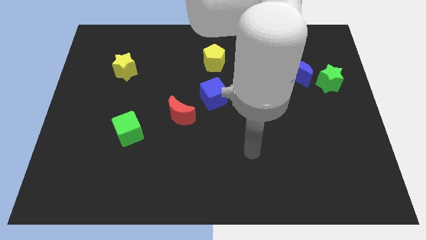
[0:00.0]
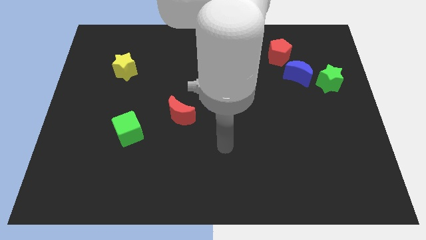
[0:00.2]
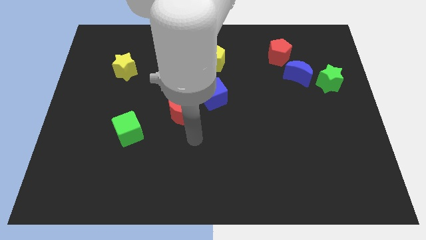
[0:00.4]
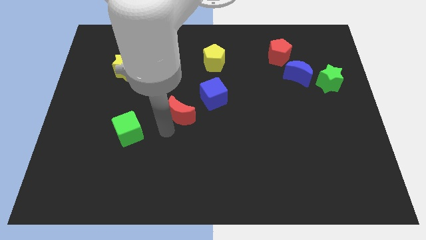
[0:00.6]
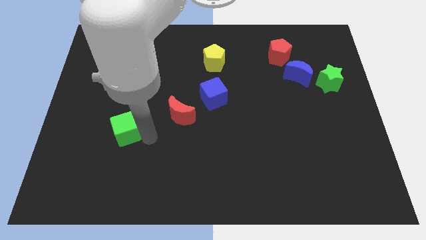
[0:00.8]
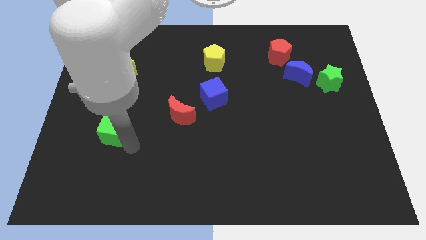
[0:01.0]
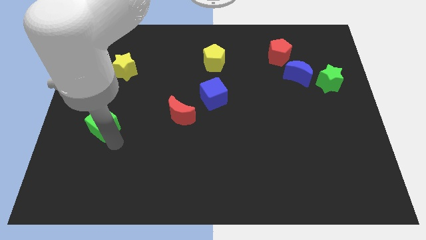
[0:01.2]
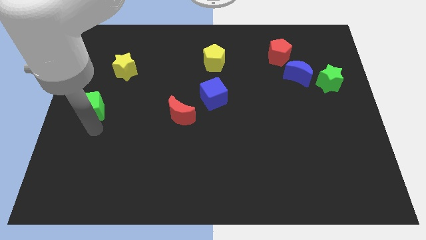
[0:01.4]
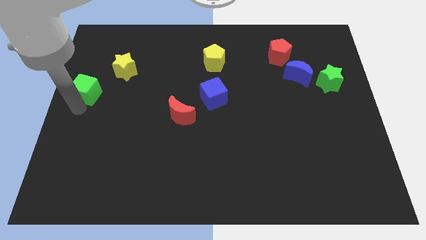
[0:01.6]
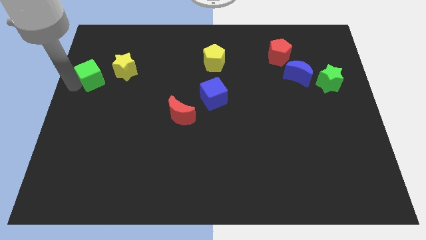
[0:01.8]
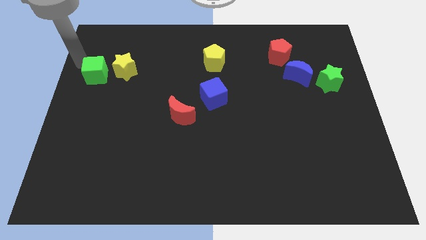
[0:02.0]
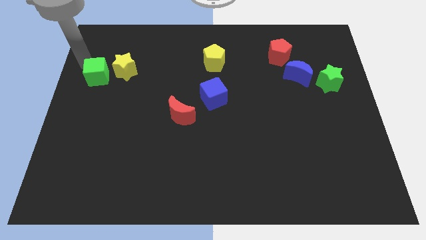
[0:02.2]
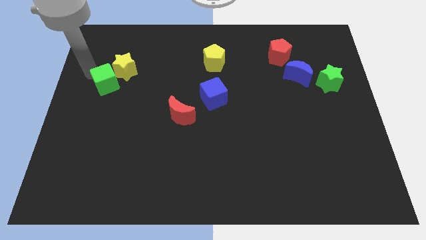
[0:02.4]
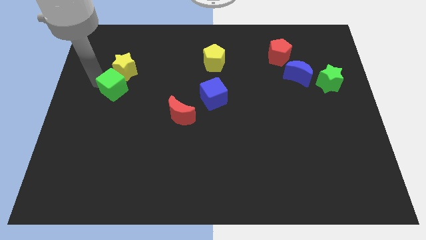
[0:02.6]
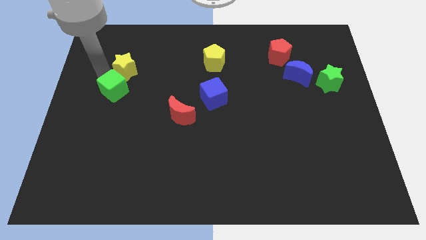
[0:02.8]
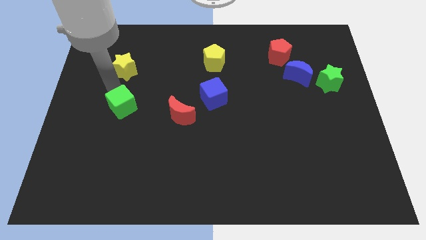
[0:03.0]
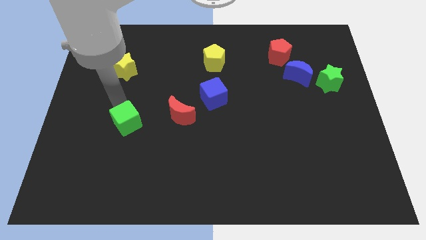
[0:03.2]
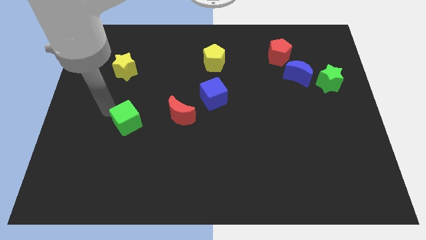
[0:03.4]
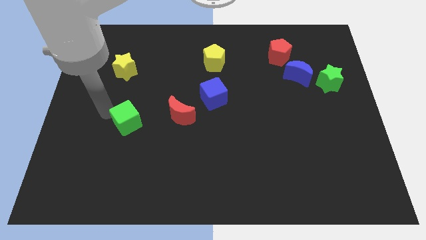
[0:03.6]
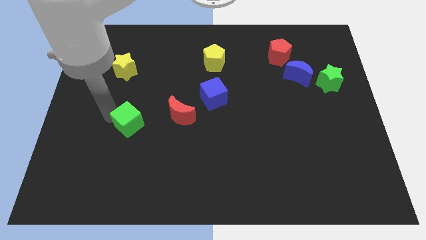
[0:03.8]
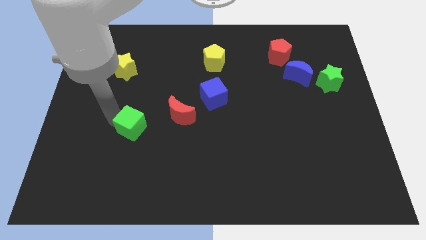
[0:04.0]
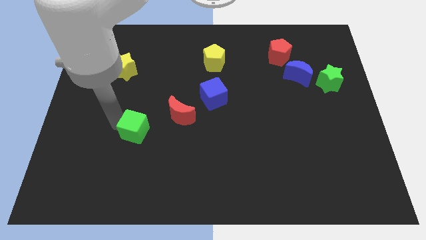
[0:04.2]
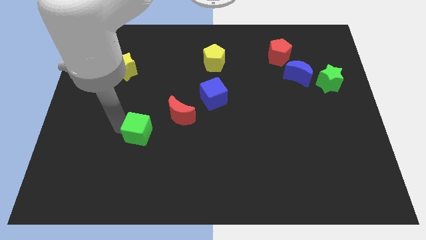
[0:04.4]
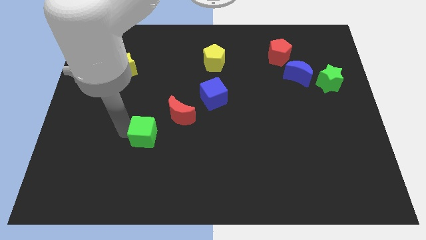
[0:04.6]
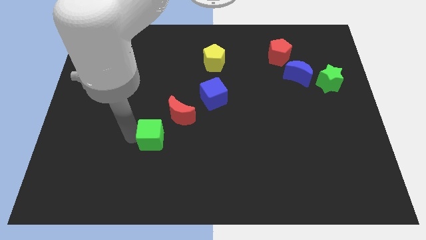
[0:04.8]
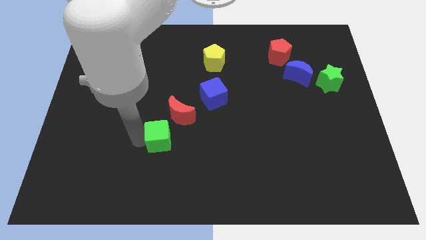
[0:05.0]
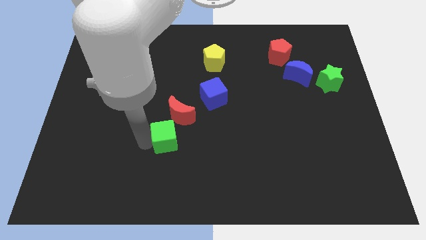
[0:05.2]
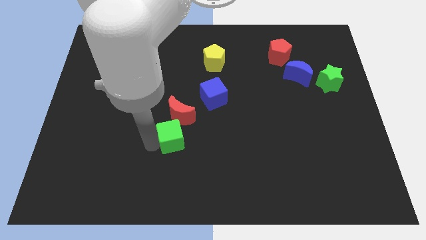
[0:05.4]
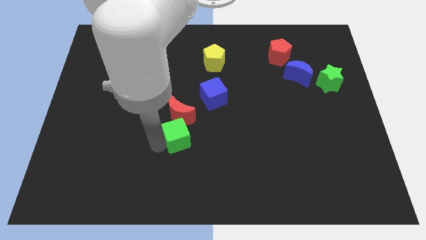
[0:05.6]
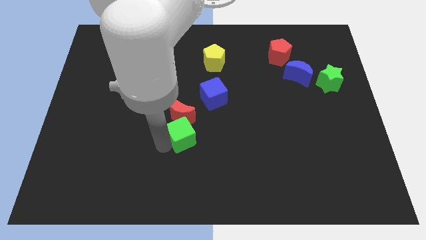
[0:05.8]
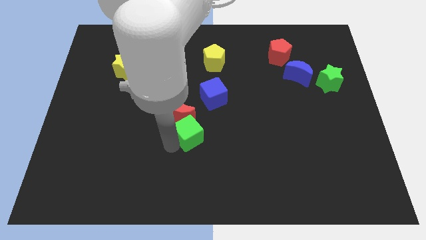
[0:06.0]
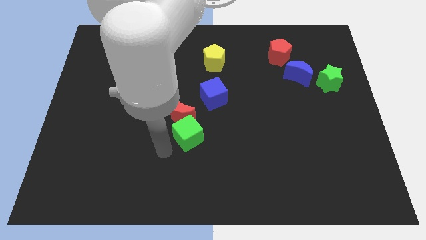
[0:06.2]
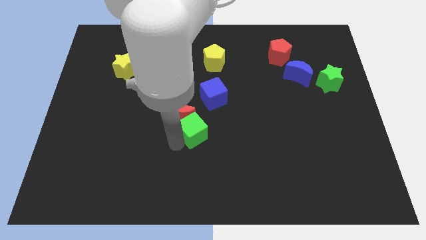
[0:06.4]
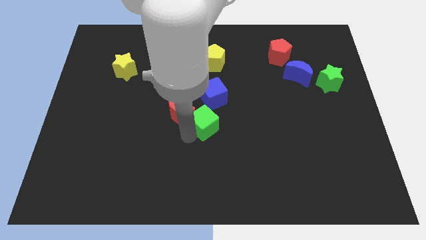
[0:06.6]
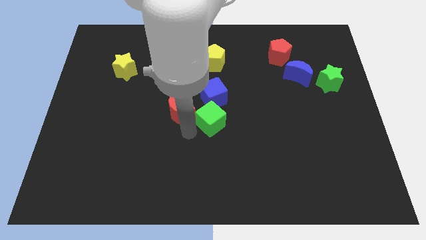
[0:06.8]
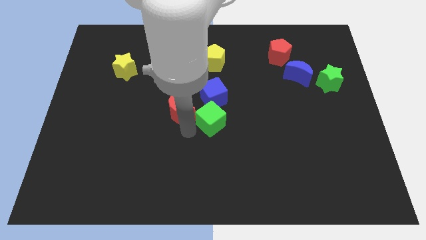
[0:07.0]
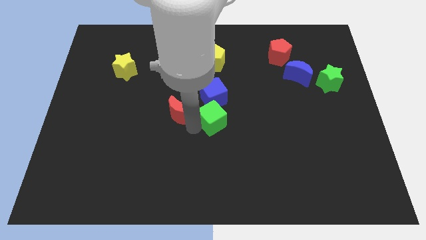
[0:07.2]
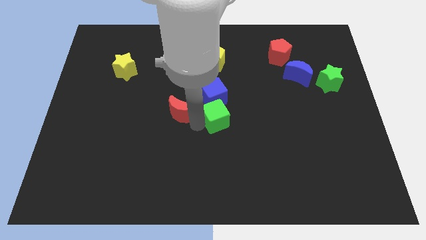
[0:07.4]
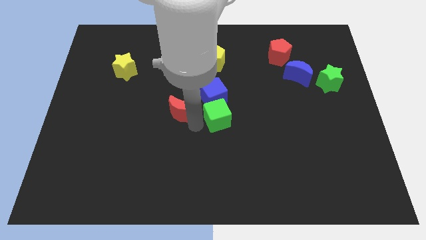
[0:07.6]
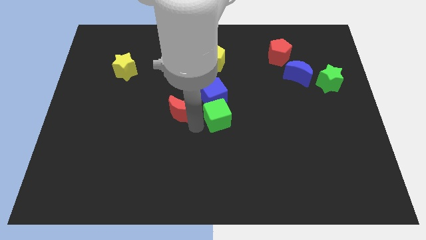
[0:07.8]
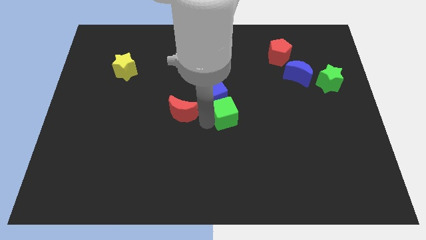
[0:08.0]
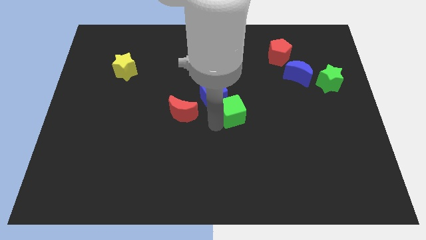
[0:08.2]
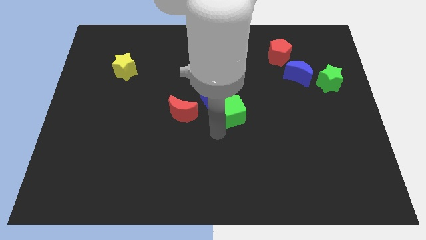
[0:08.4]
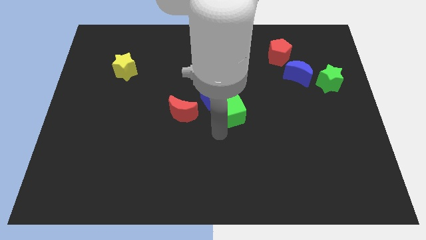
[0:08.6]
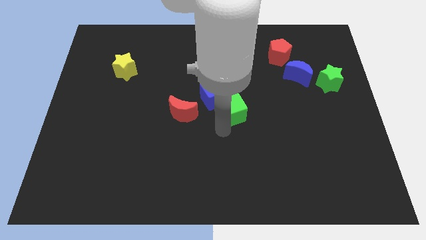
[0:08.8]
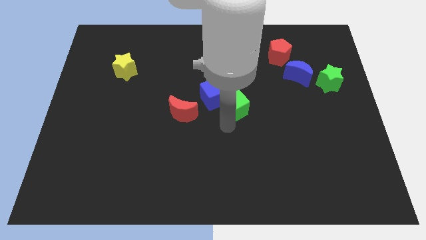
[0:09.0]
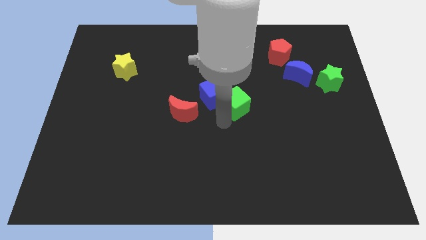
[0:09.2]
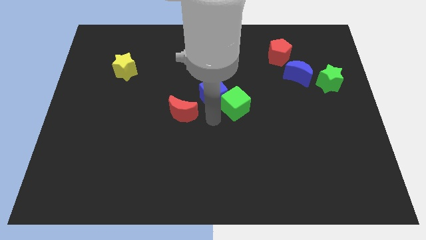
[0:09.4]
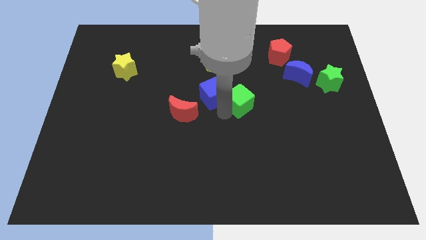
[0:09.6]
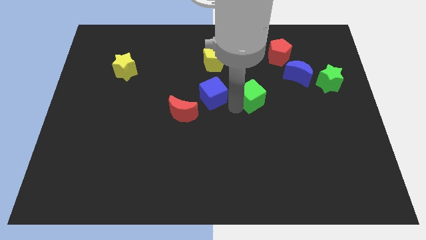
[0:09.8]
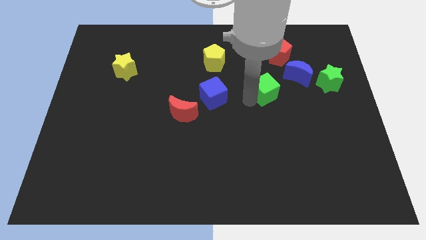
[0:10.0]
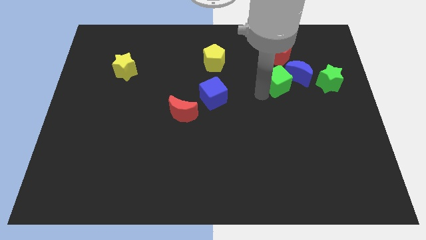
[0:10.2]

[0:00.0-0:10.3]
push the green cube close to the blue moon

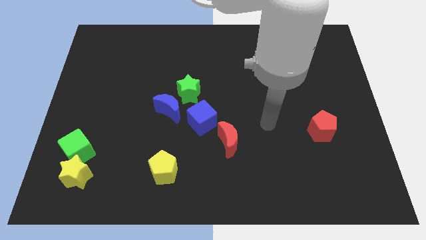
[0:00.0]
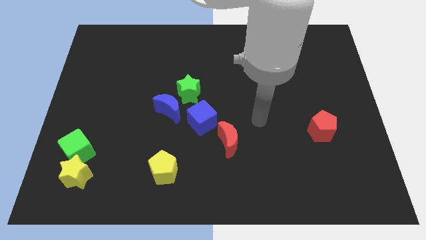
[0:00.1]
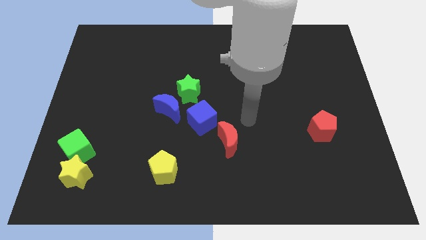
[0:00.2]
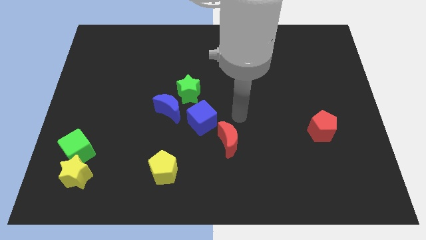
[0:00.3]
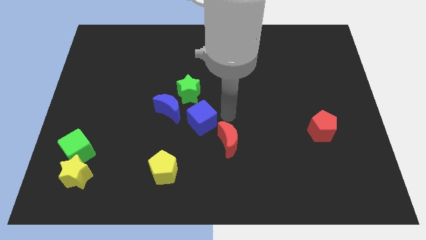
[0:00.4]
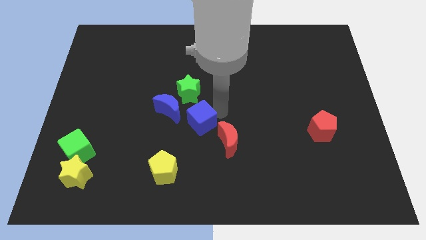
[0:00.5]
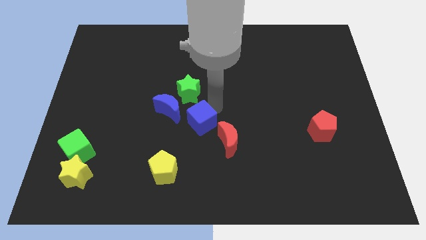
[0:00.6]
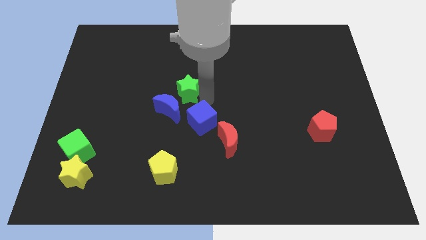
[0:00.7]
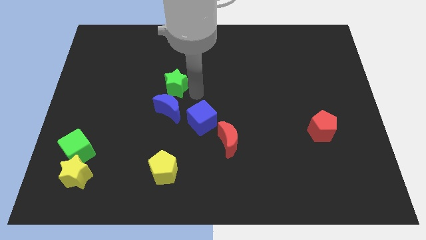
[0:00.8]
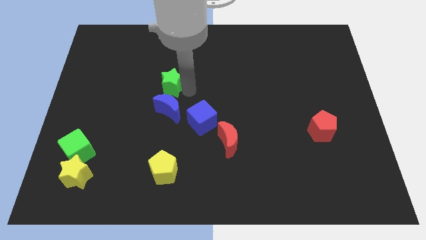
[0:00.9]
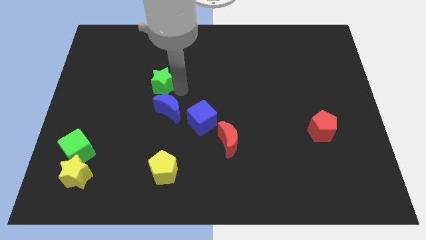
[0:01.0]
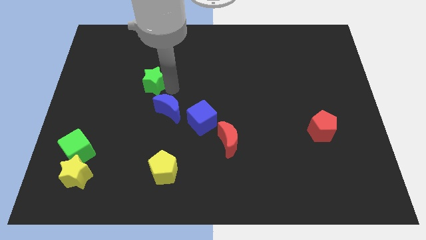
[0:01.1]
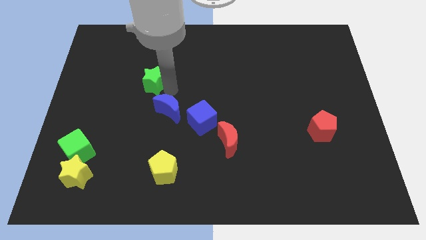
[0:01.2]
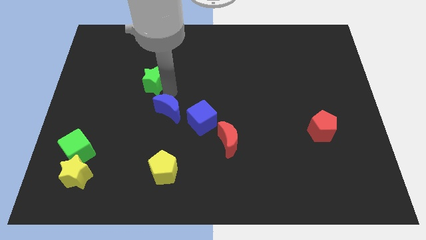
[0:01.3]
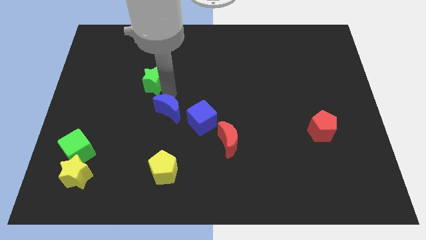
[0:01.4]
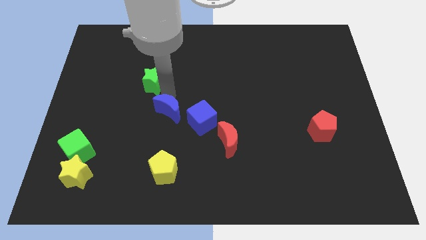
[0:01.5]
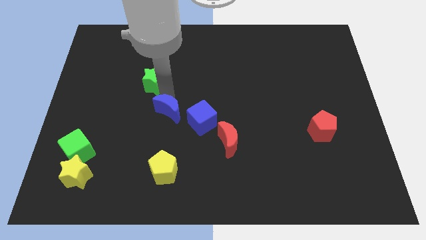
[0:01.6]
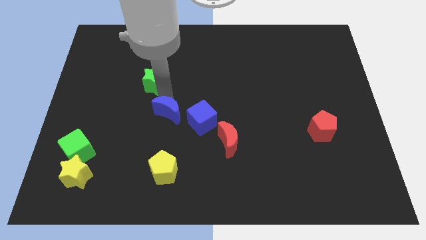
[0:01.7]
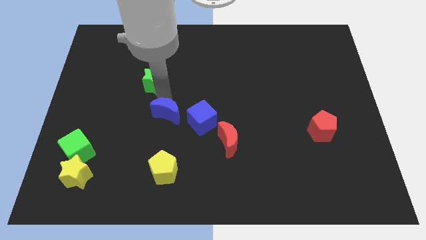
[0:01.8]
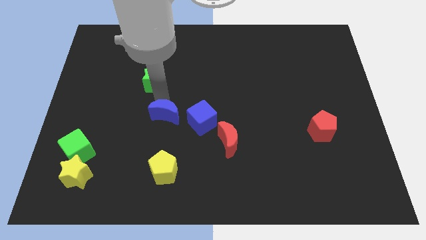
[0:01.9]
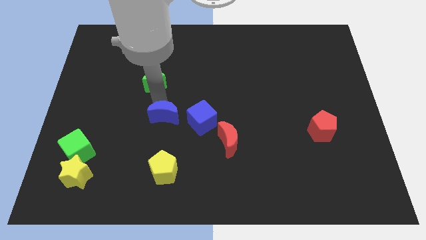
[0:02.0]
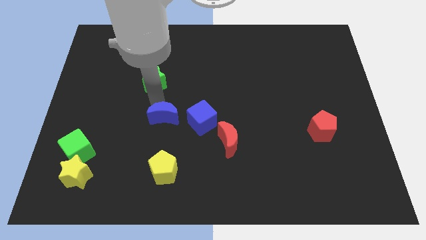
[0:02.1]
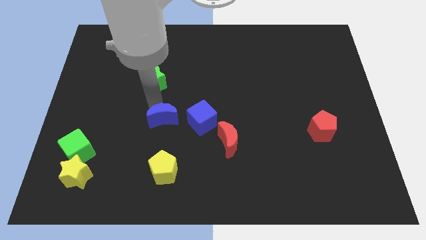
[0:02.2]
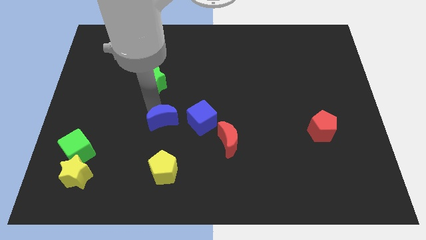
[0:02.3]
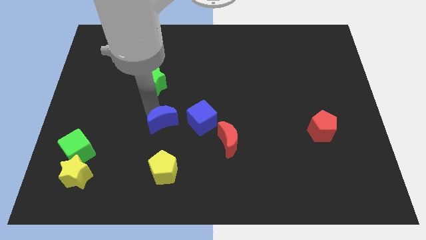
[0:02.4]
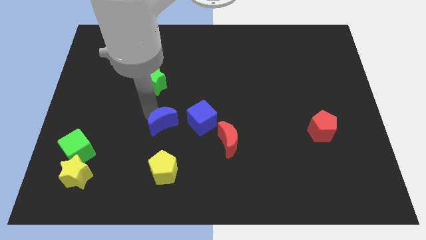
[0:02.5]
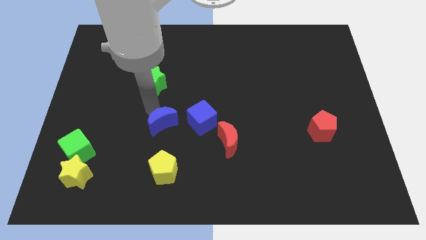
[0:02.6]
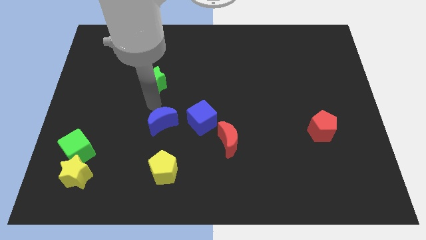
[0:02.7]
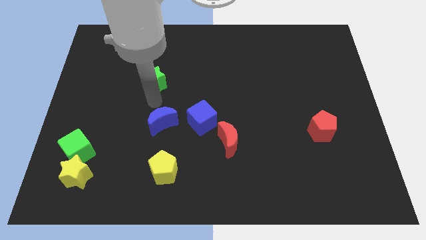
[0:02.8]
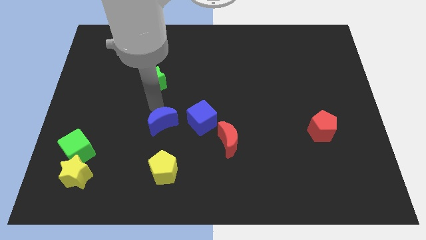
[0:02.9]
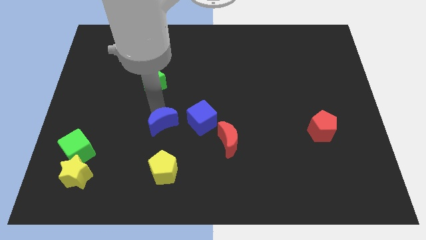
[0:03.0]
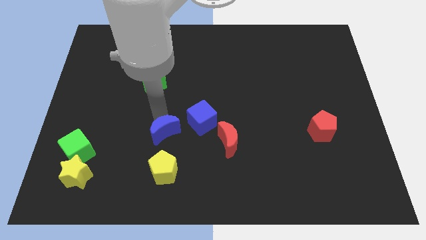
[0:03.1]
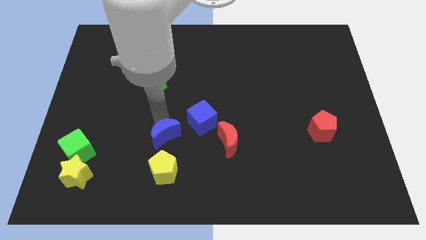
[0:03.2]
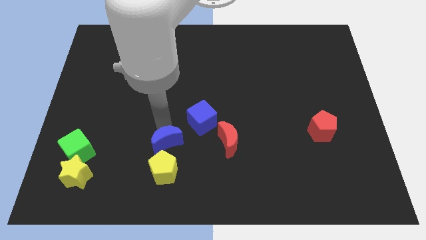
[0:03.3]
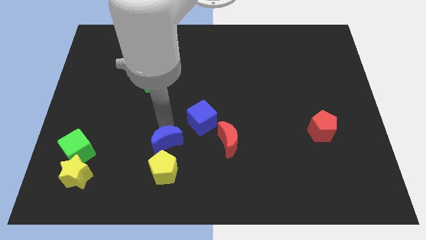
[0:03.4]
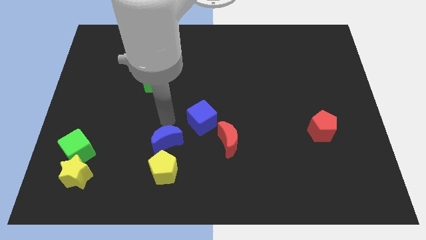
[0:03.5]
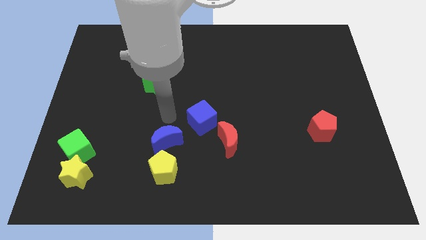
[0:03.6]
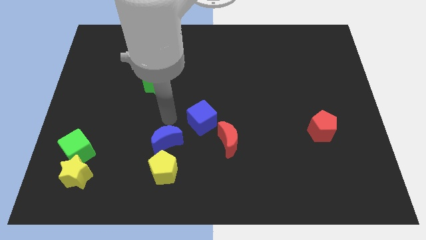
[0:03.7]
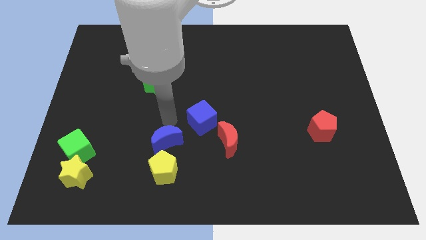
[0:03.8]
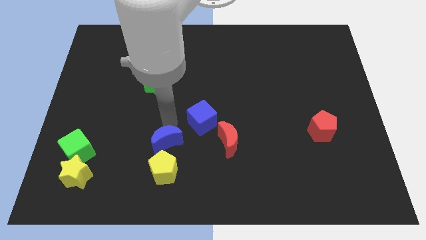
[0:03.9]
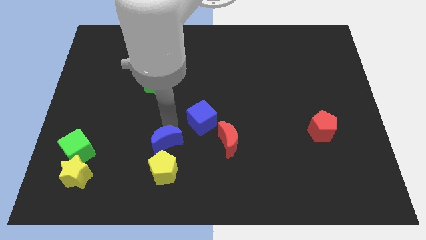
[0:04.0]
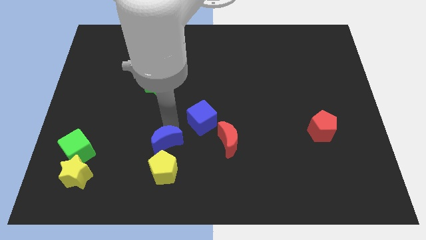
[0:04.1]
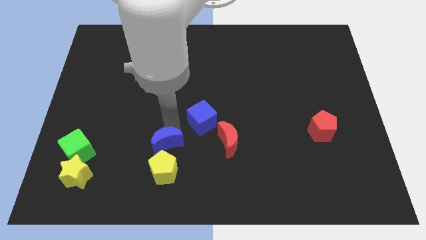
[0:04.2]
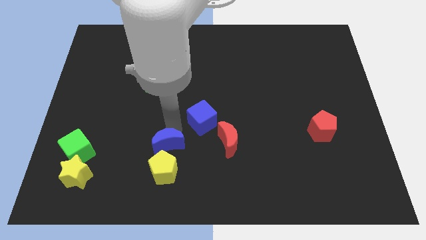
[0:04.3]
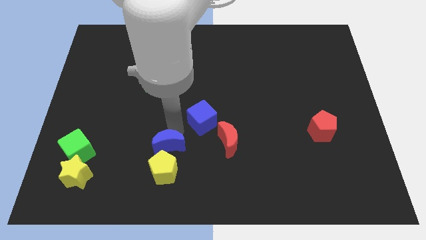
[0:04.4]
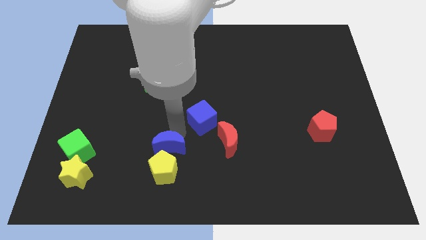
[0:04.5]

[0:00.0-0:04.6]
push the blue moon close to the yellow pentagon
